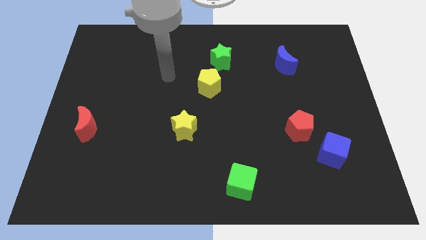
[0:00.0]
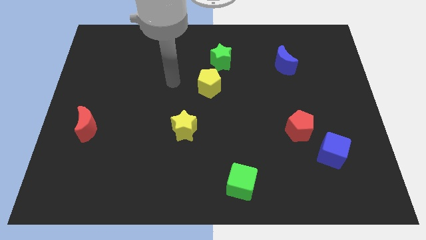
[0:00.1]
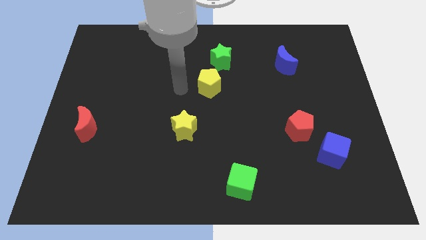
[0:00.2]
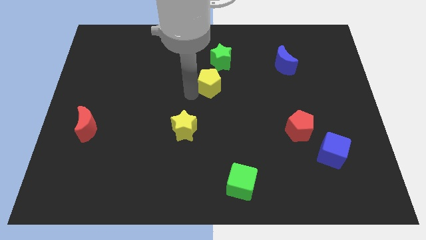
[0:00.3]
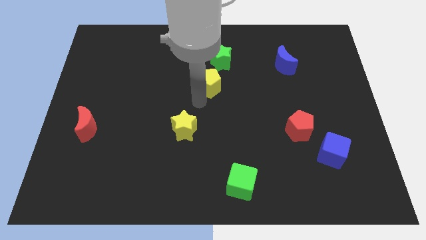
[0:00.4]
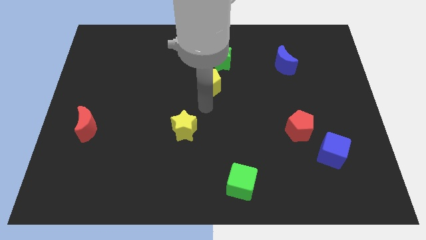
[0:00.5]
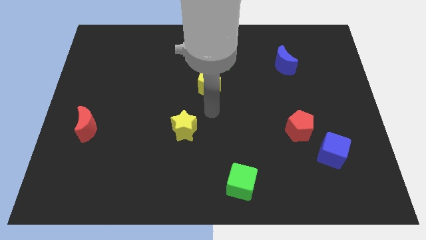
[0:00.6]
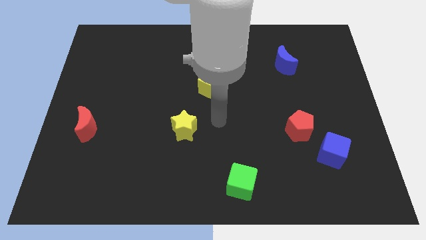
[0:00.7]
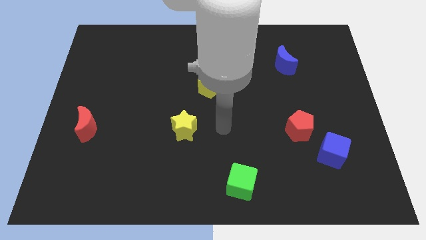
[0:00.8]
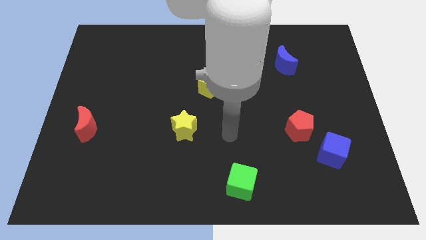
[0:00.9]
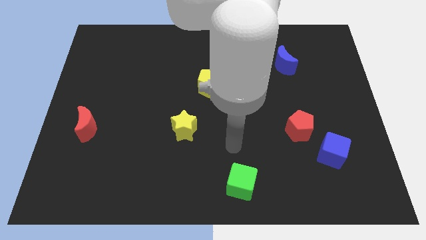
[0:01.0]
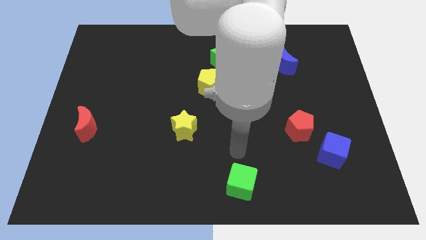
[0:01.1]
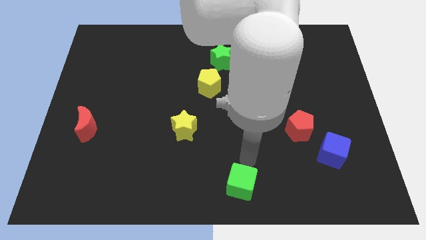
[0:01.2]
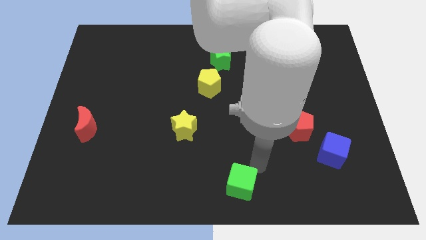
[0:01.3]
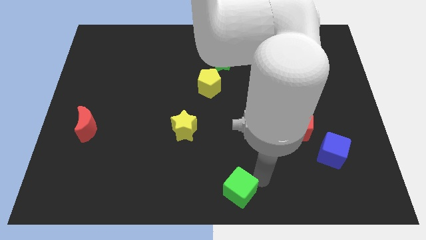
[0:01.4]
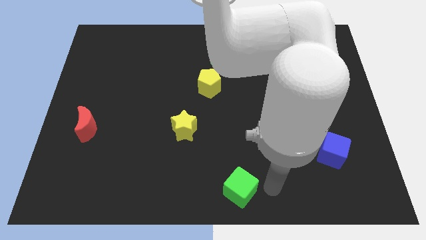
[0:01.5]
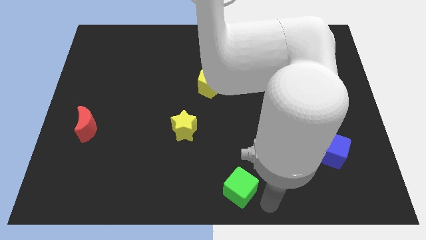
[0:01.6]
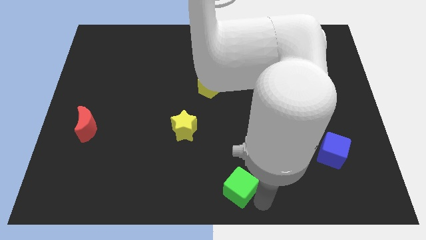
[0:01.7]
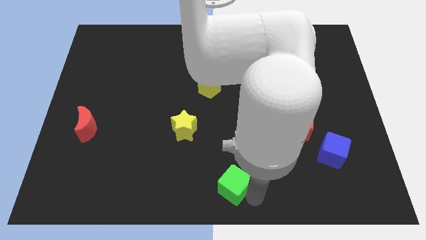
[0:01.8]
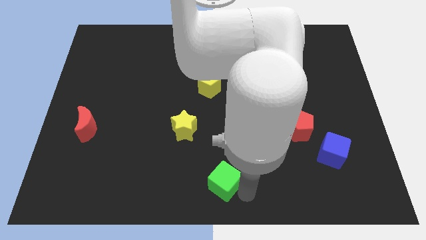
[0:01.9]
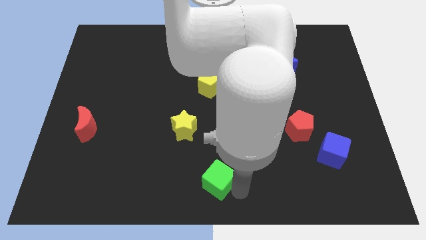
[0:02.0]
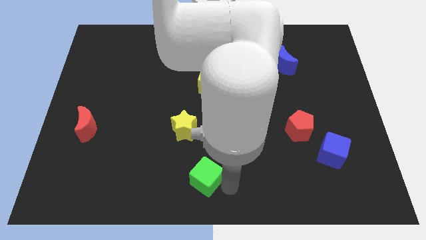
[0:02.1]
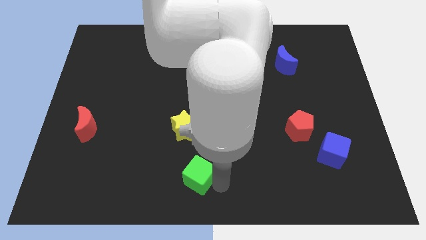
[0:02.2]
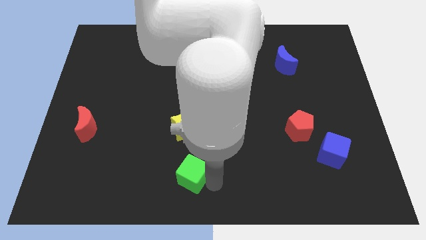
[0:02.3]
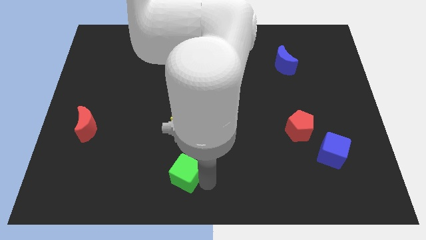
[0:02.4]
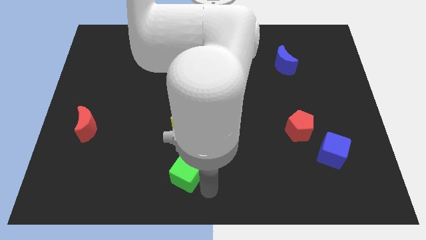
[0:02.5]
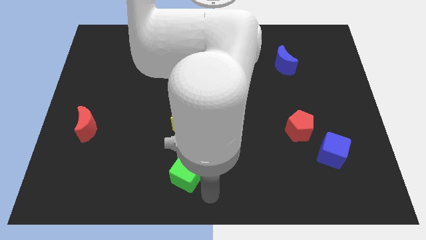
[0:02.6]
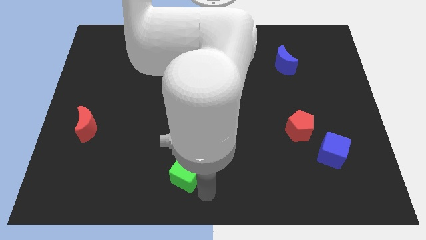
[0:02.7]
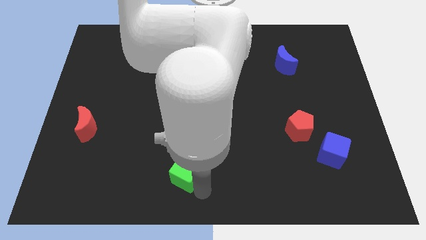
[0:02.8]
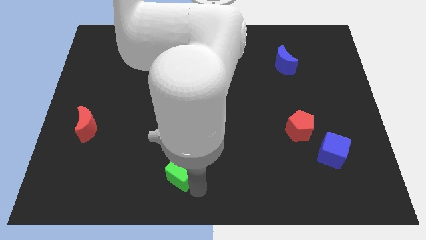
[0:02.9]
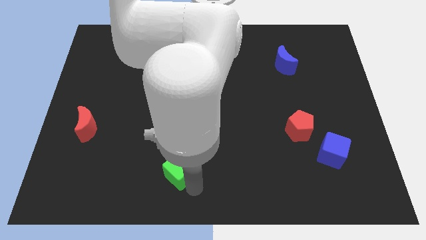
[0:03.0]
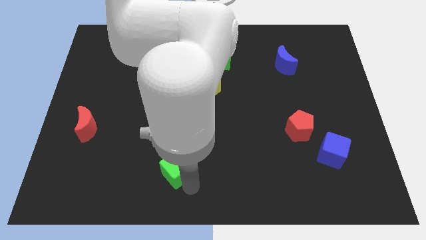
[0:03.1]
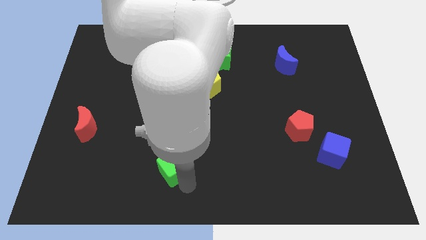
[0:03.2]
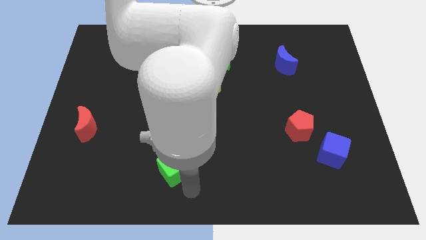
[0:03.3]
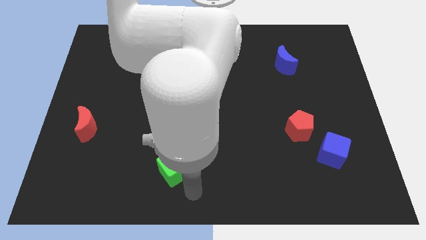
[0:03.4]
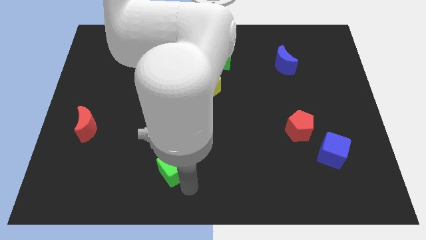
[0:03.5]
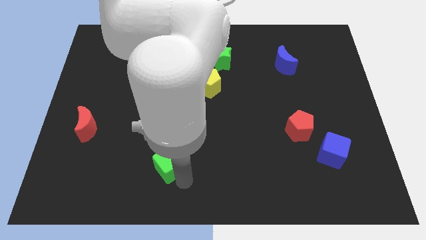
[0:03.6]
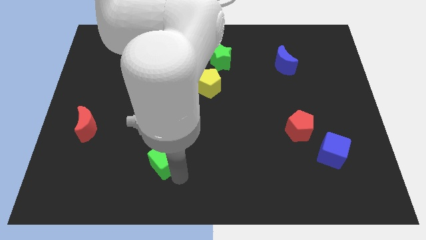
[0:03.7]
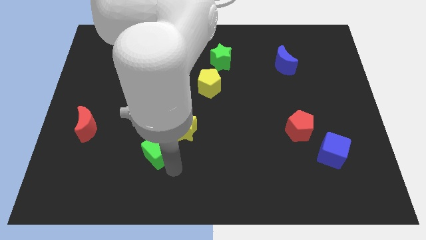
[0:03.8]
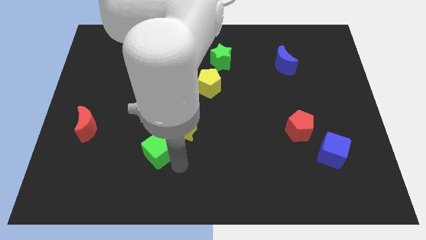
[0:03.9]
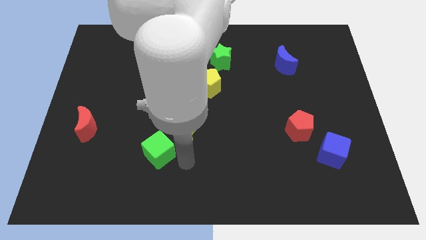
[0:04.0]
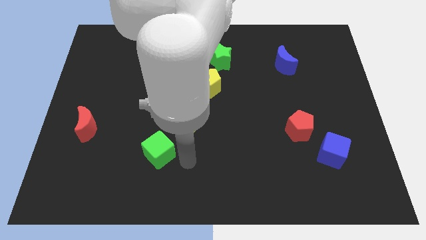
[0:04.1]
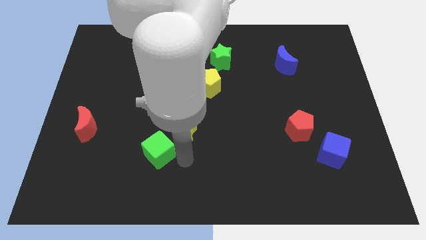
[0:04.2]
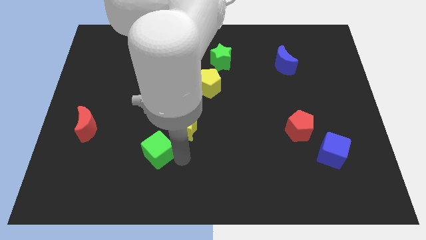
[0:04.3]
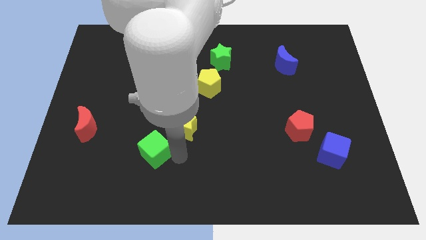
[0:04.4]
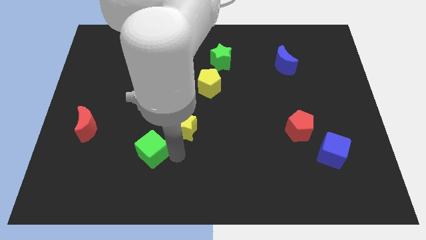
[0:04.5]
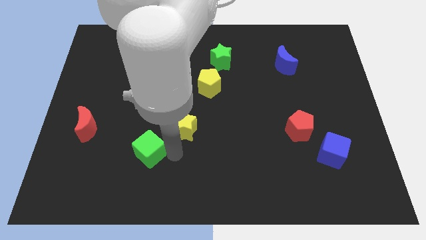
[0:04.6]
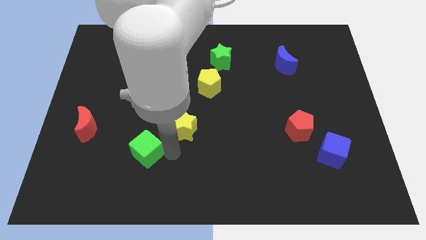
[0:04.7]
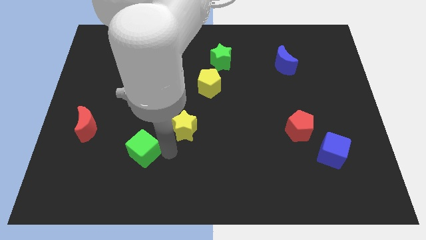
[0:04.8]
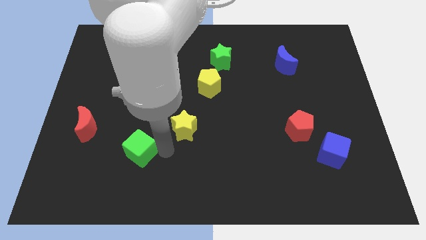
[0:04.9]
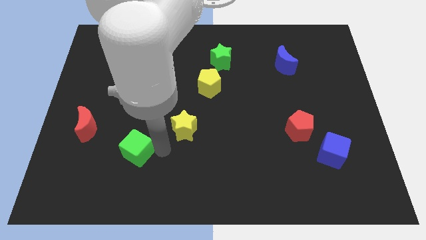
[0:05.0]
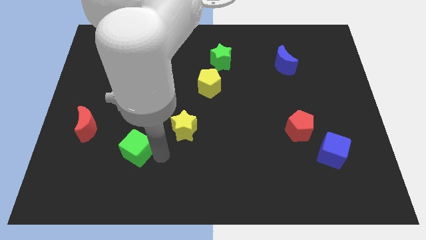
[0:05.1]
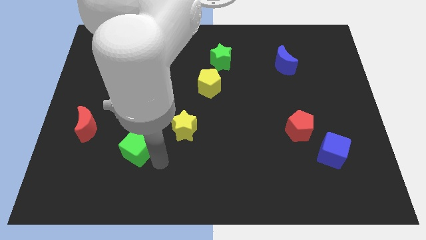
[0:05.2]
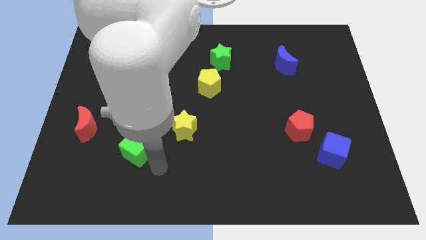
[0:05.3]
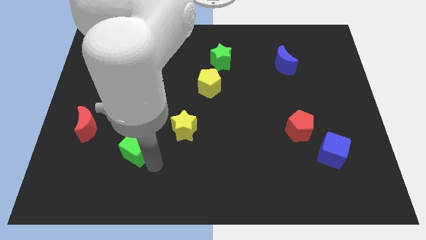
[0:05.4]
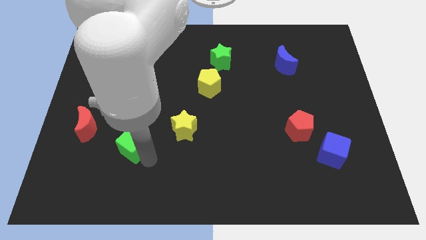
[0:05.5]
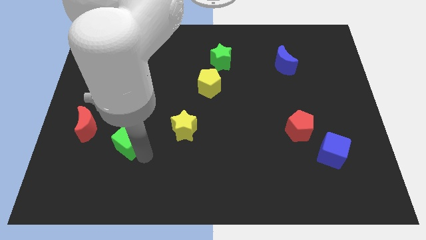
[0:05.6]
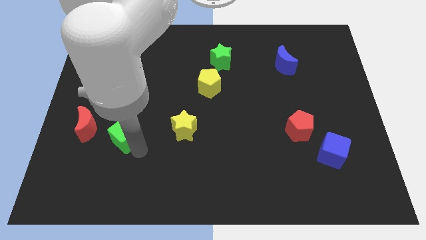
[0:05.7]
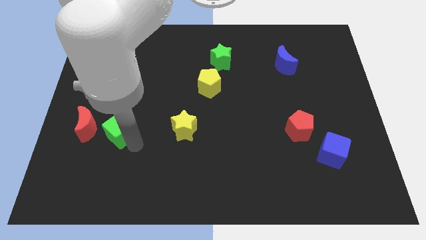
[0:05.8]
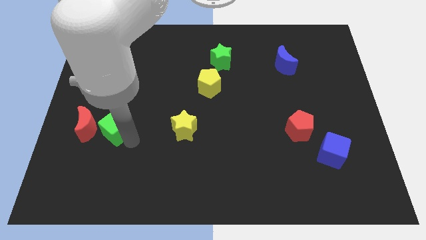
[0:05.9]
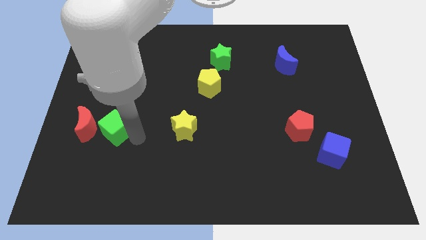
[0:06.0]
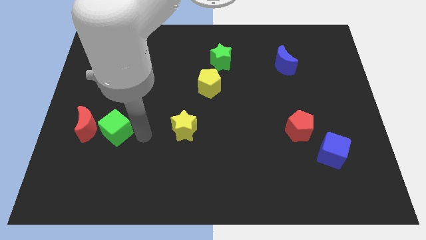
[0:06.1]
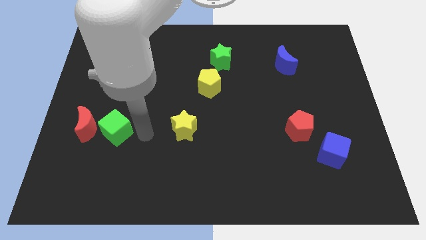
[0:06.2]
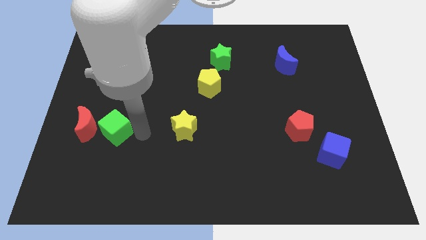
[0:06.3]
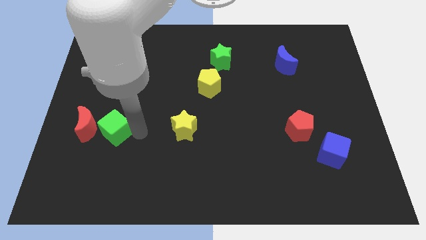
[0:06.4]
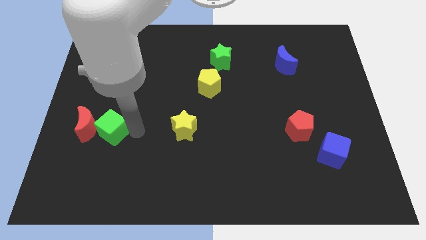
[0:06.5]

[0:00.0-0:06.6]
move the green cube close to the red moon

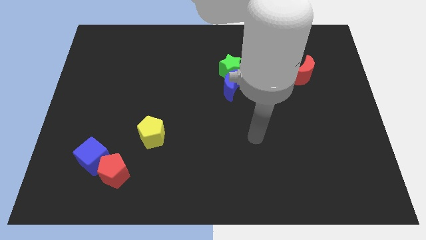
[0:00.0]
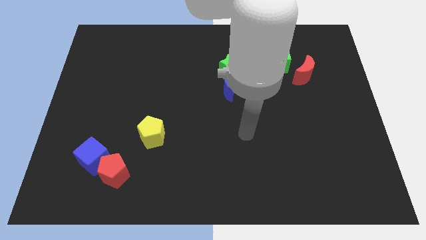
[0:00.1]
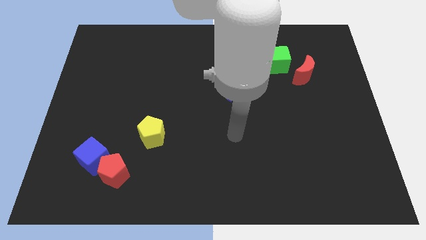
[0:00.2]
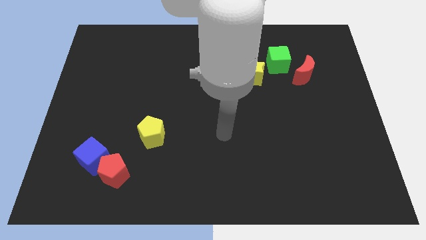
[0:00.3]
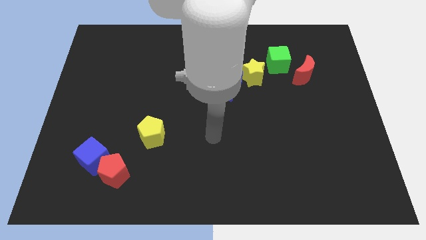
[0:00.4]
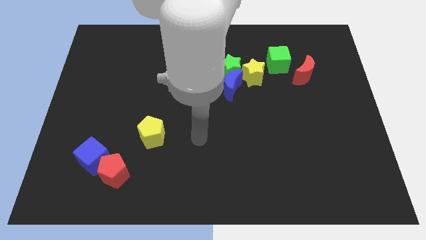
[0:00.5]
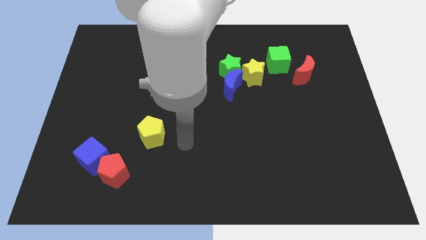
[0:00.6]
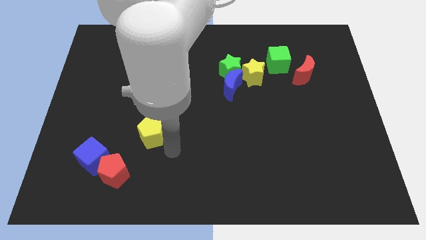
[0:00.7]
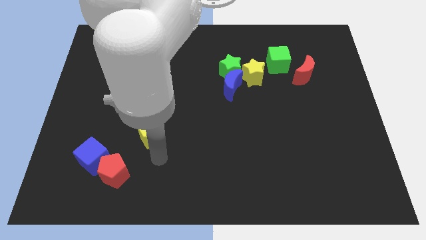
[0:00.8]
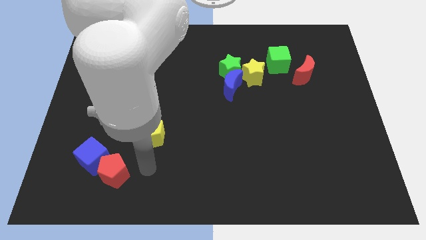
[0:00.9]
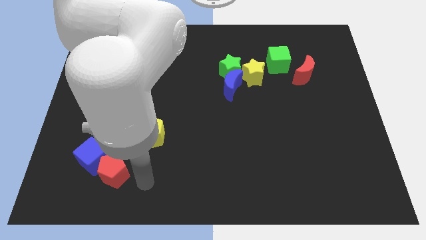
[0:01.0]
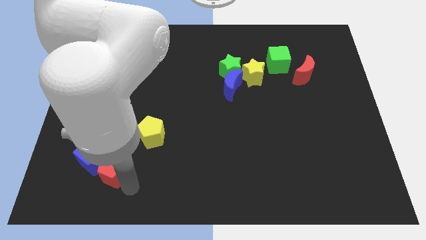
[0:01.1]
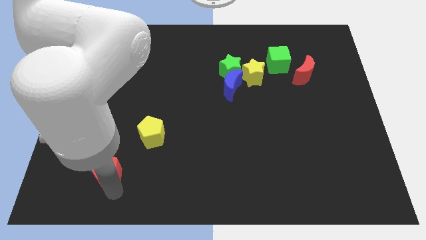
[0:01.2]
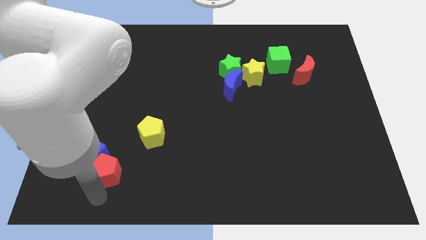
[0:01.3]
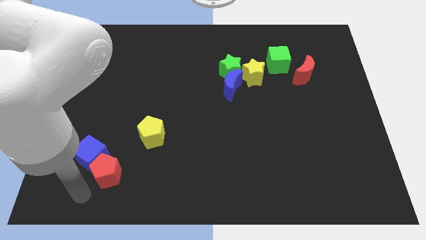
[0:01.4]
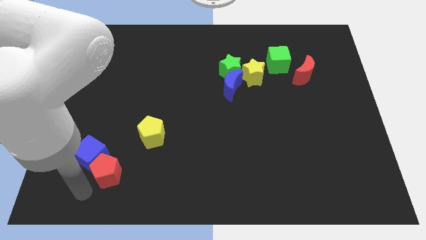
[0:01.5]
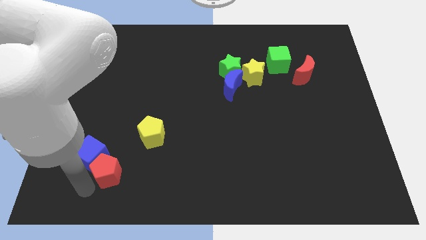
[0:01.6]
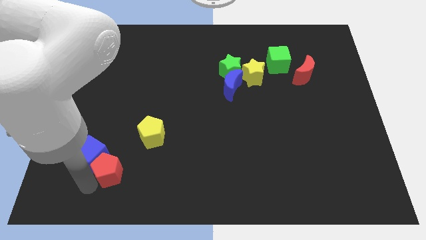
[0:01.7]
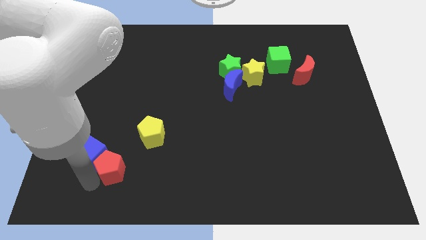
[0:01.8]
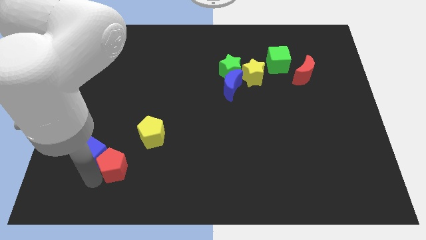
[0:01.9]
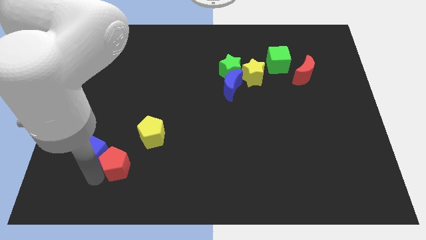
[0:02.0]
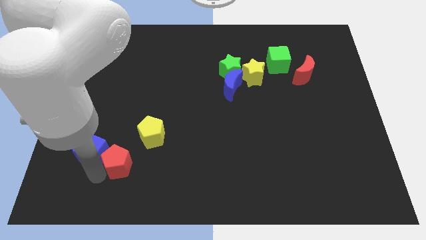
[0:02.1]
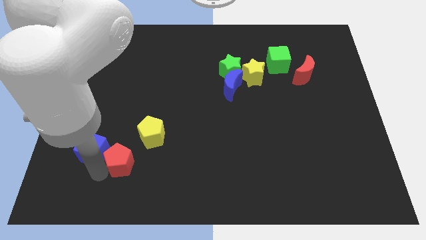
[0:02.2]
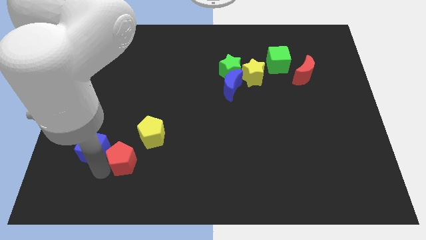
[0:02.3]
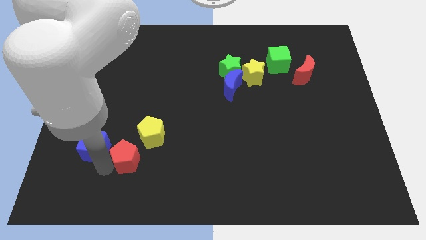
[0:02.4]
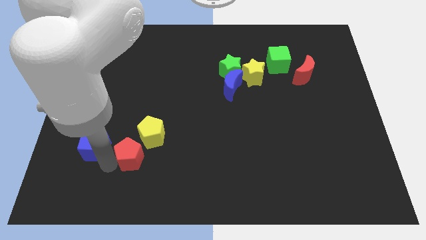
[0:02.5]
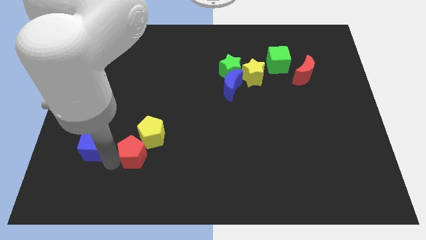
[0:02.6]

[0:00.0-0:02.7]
put the red pentagon to the yellow pentagon
